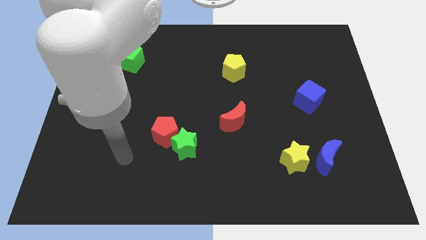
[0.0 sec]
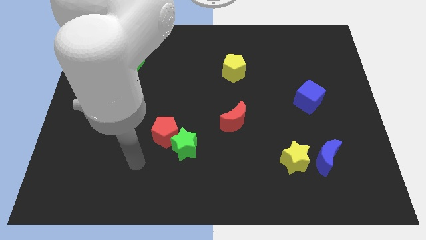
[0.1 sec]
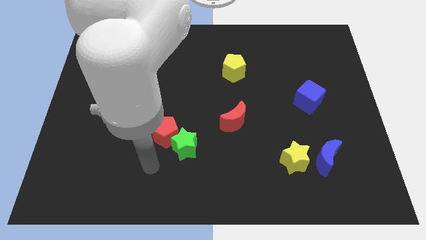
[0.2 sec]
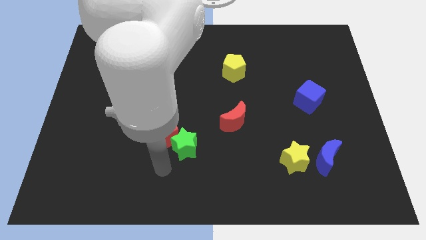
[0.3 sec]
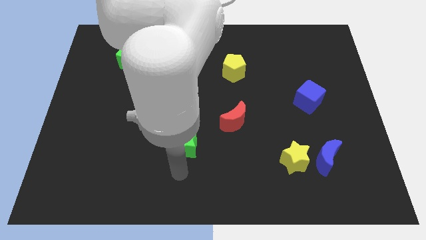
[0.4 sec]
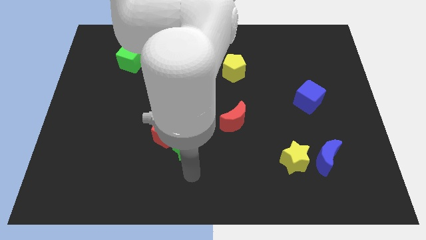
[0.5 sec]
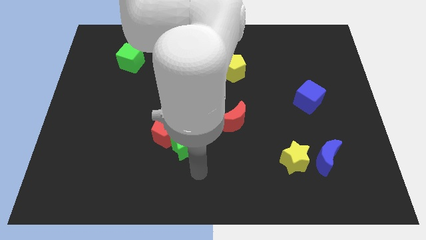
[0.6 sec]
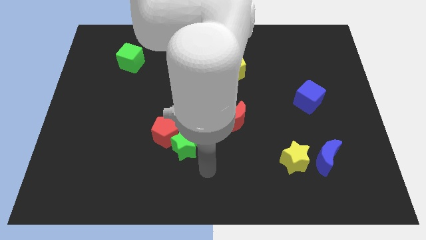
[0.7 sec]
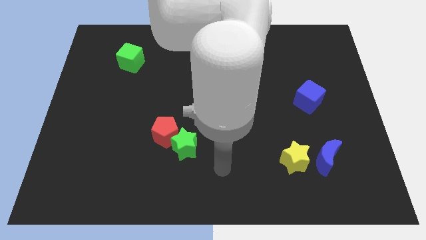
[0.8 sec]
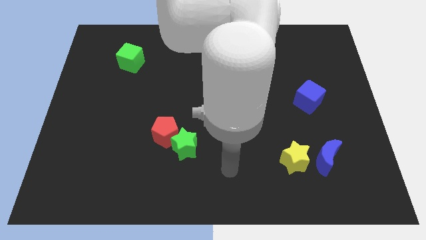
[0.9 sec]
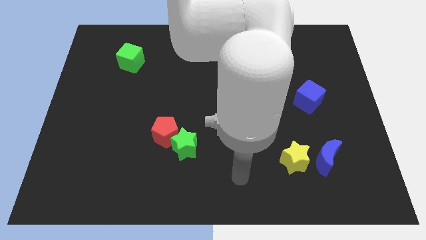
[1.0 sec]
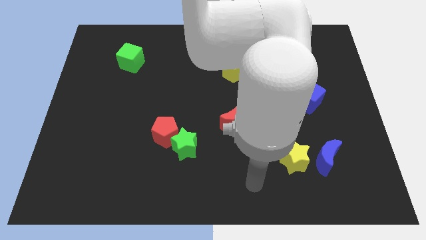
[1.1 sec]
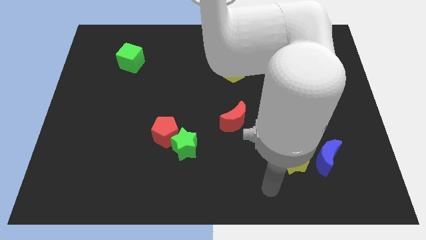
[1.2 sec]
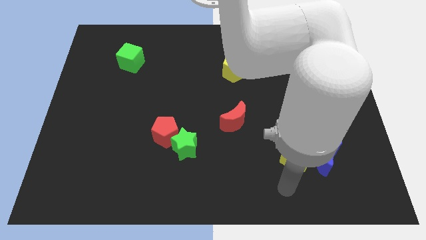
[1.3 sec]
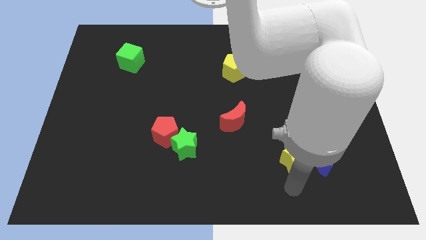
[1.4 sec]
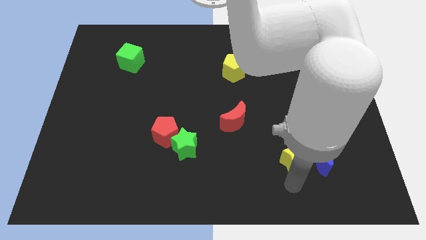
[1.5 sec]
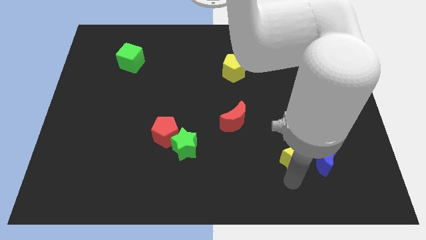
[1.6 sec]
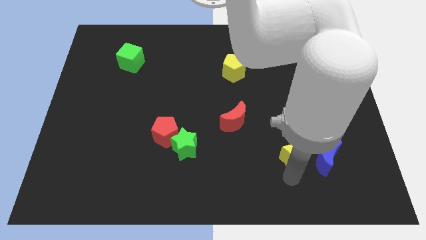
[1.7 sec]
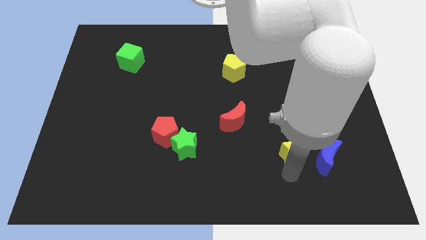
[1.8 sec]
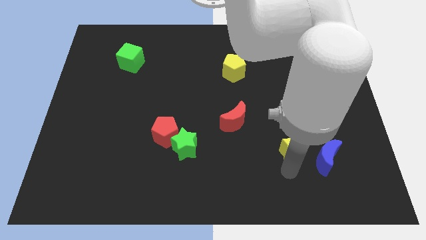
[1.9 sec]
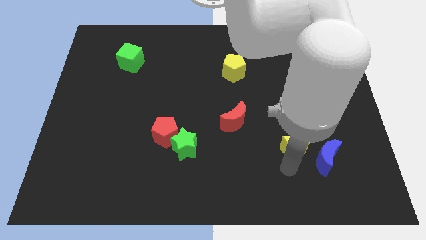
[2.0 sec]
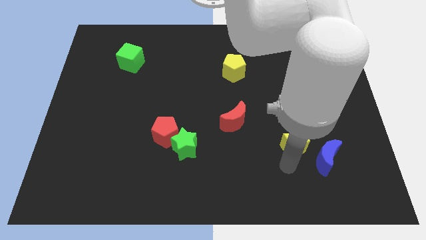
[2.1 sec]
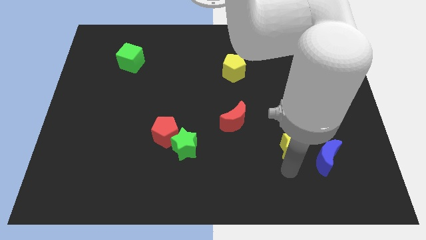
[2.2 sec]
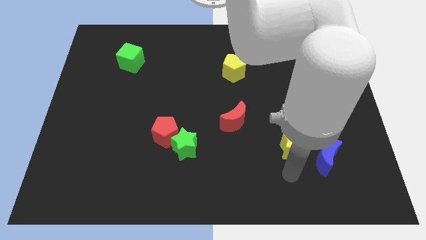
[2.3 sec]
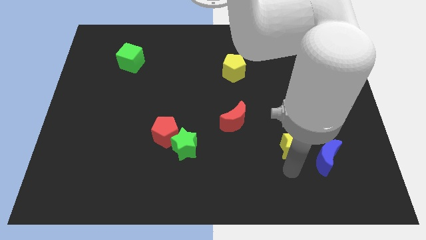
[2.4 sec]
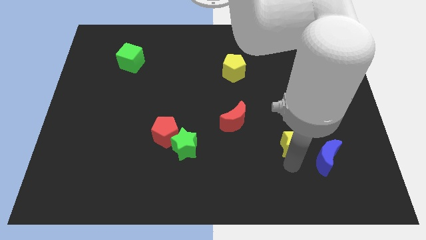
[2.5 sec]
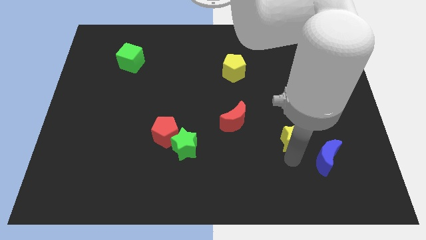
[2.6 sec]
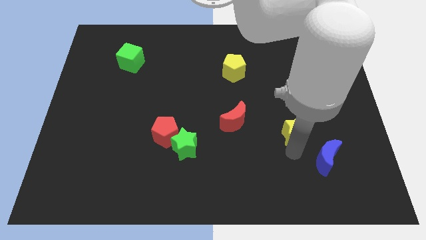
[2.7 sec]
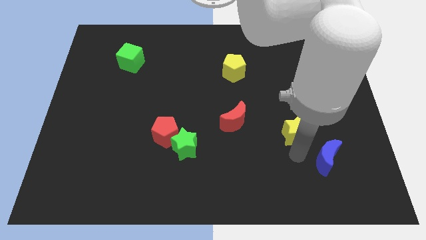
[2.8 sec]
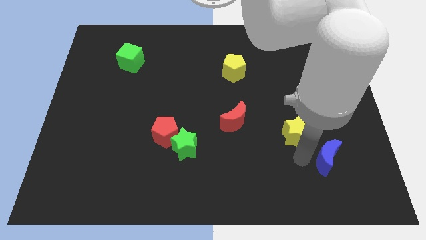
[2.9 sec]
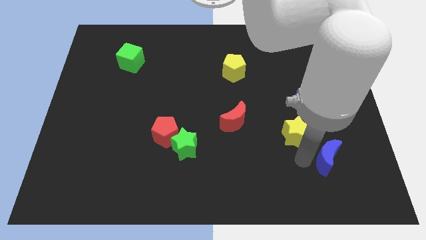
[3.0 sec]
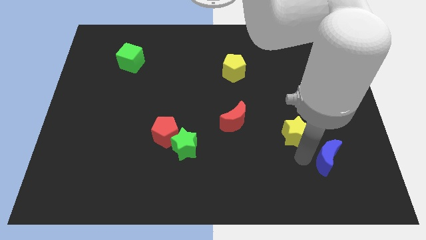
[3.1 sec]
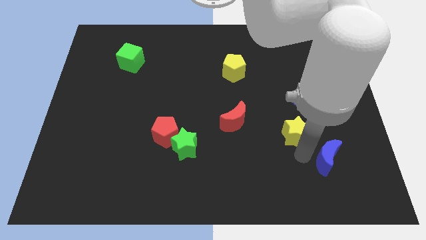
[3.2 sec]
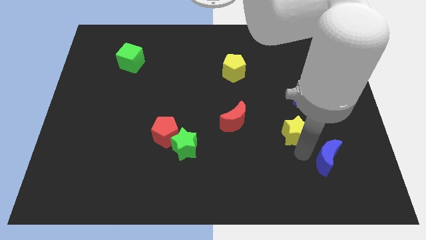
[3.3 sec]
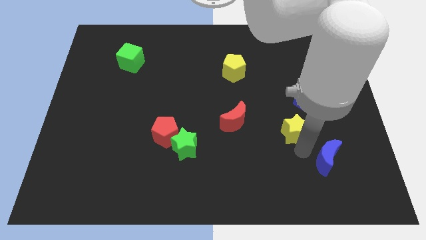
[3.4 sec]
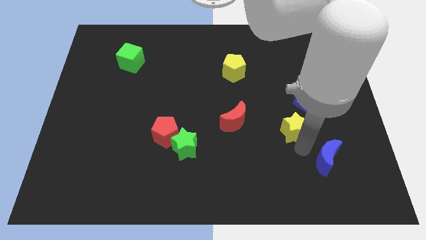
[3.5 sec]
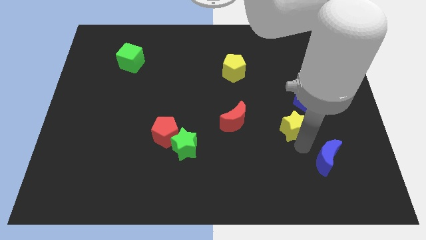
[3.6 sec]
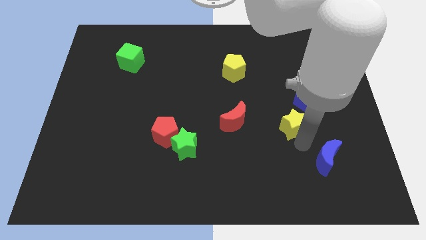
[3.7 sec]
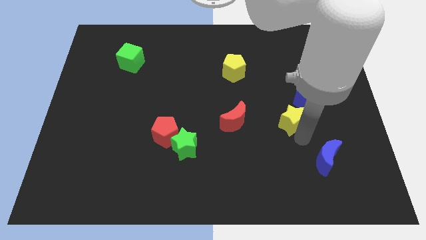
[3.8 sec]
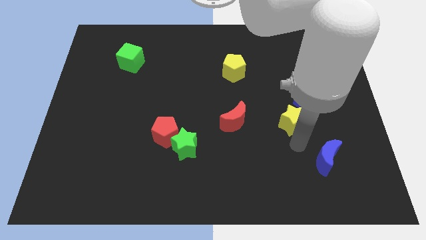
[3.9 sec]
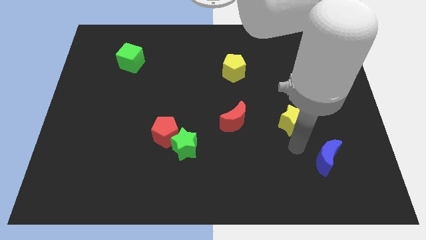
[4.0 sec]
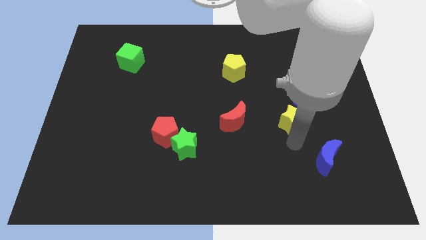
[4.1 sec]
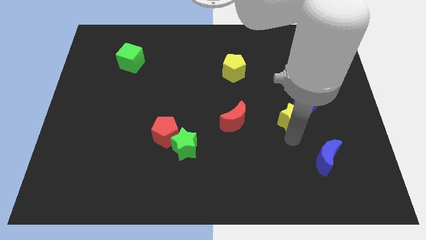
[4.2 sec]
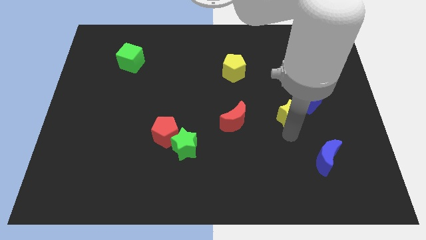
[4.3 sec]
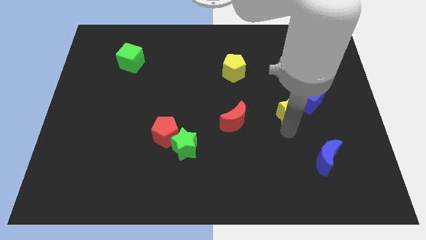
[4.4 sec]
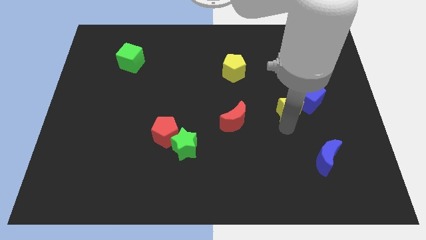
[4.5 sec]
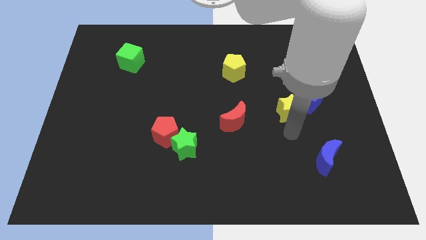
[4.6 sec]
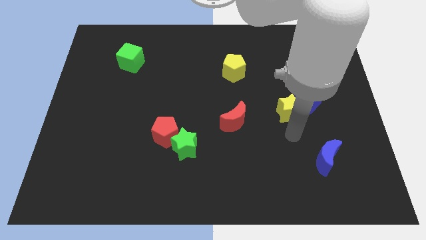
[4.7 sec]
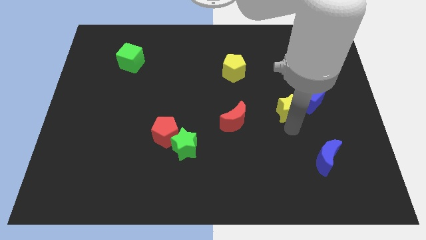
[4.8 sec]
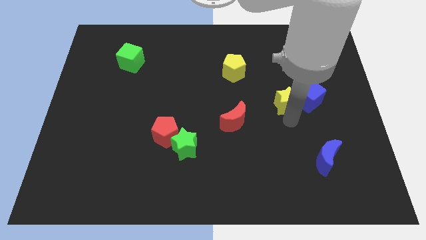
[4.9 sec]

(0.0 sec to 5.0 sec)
slide the yellow star to the top left side of the blue cube

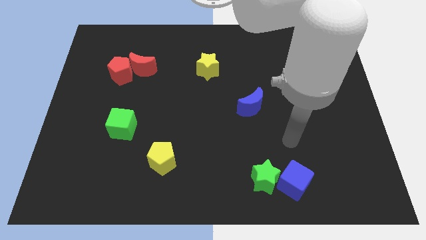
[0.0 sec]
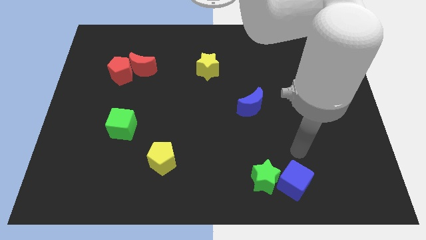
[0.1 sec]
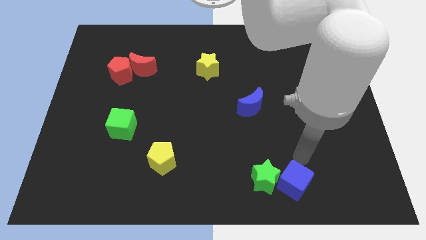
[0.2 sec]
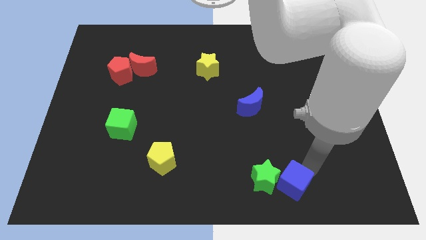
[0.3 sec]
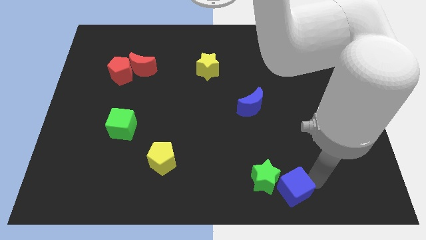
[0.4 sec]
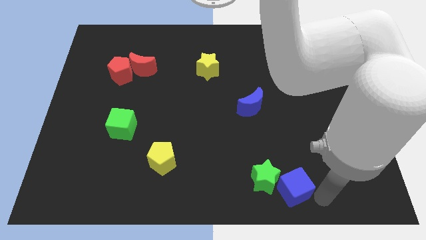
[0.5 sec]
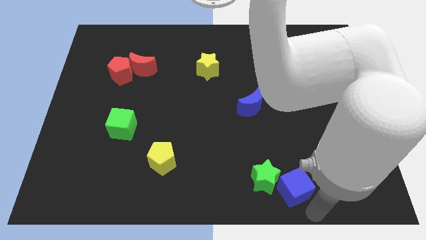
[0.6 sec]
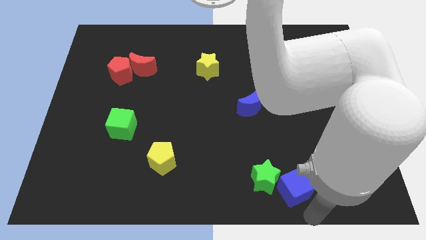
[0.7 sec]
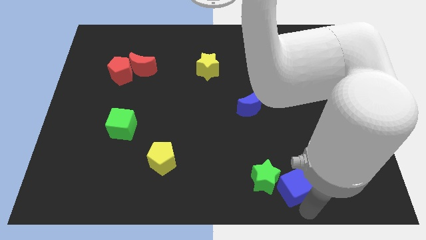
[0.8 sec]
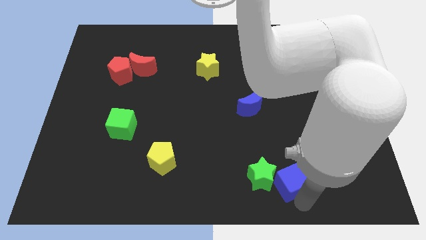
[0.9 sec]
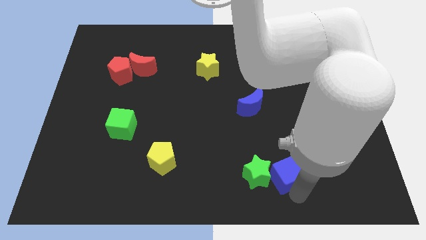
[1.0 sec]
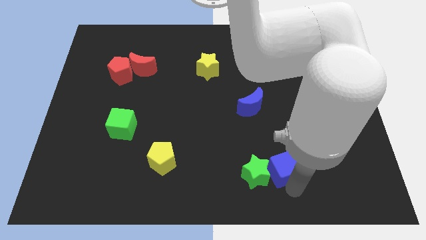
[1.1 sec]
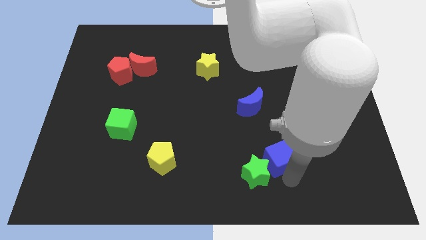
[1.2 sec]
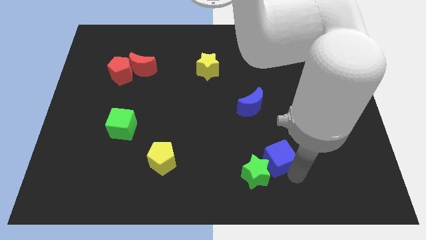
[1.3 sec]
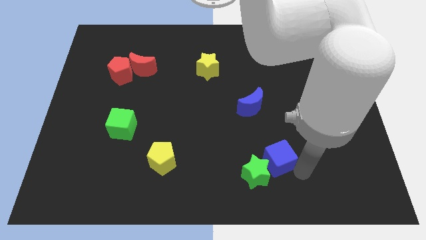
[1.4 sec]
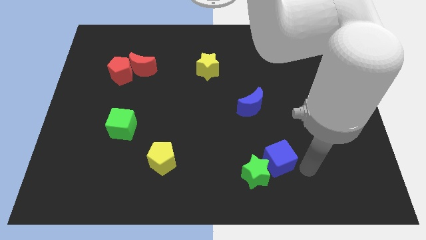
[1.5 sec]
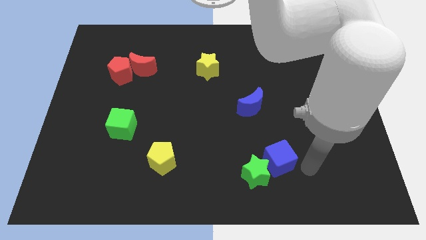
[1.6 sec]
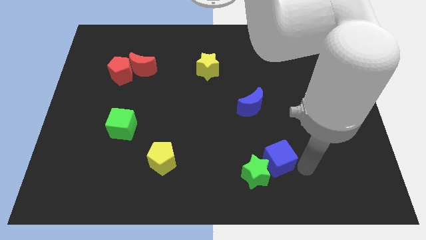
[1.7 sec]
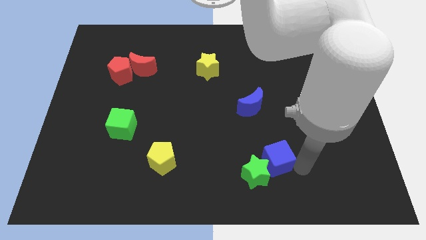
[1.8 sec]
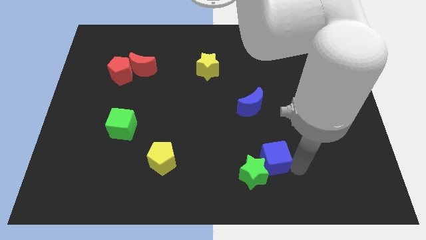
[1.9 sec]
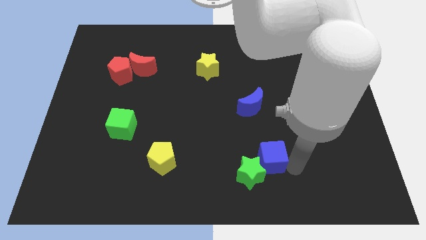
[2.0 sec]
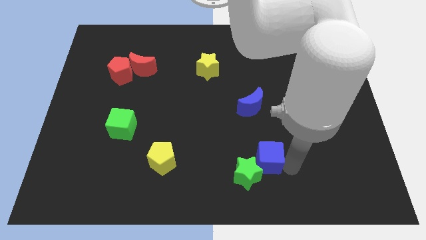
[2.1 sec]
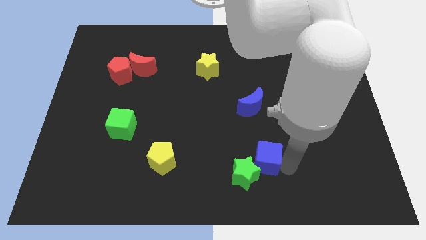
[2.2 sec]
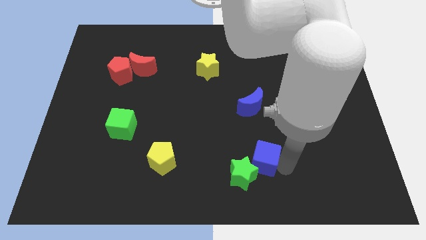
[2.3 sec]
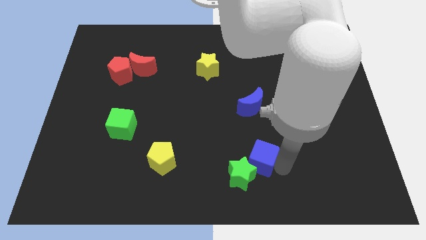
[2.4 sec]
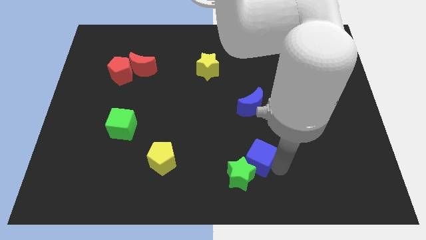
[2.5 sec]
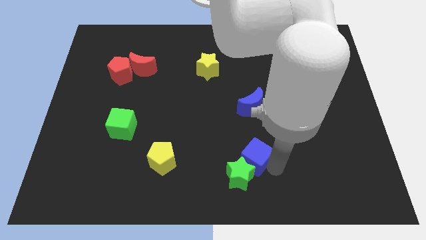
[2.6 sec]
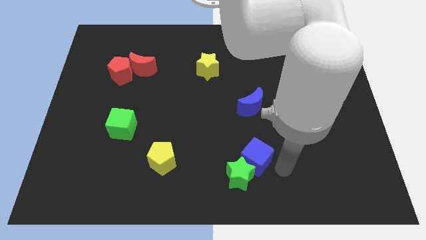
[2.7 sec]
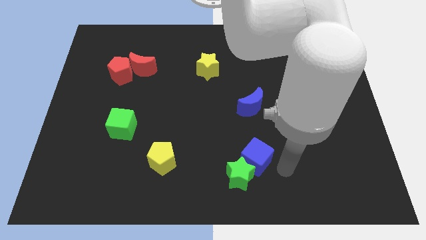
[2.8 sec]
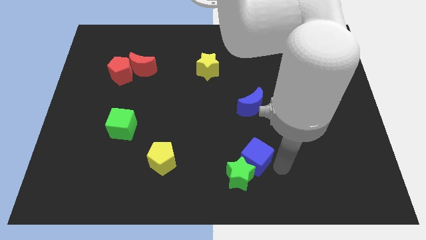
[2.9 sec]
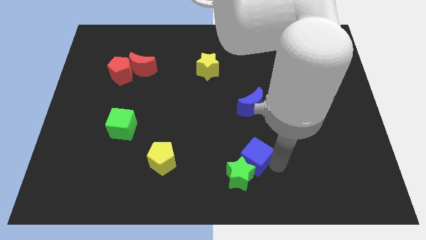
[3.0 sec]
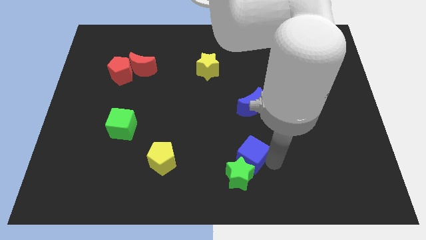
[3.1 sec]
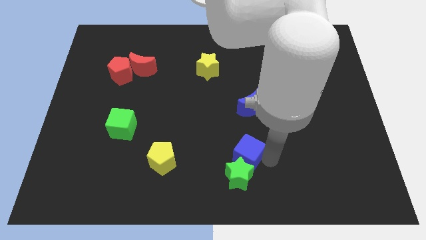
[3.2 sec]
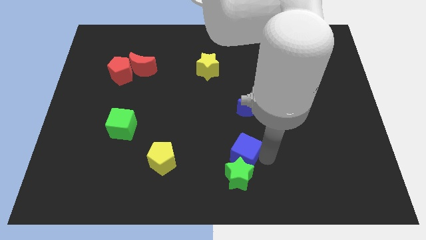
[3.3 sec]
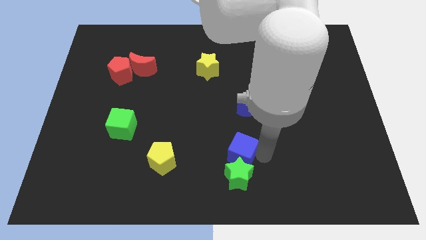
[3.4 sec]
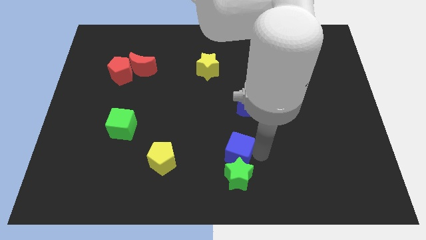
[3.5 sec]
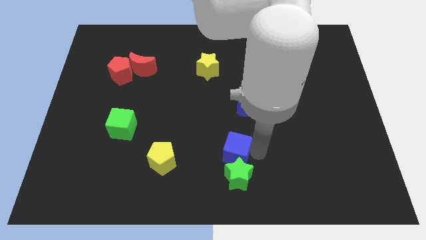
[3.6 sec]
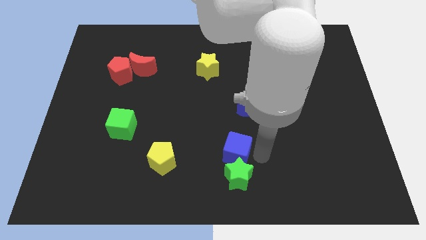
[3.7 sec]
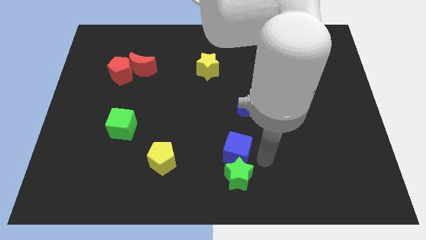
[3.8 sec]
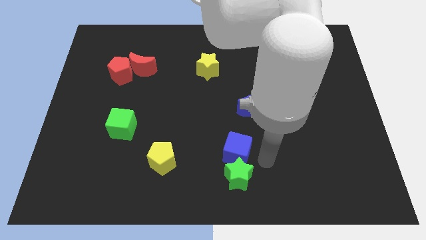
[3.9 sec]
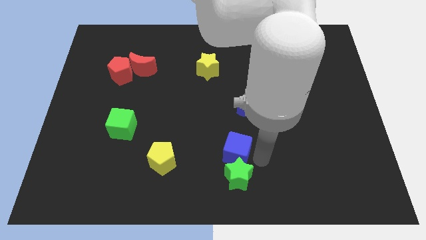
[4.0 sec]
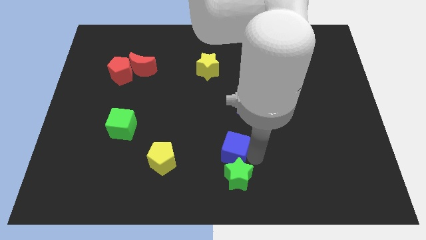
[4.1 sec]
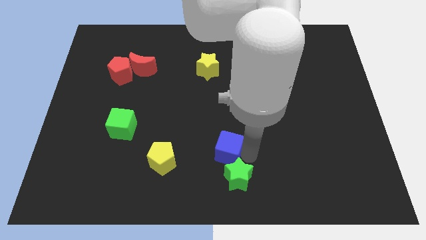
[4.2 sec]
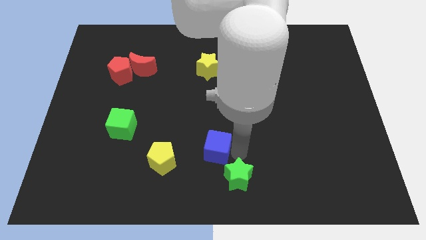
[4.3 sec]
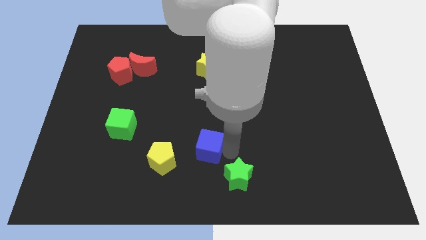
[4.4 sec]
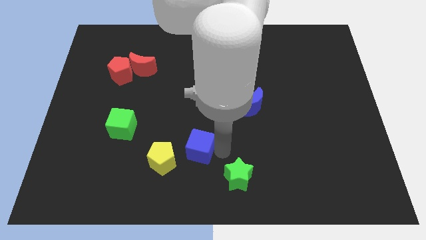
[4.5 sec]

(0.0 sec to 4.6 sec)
slide the blue cube diagonally up and to the right of the yellow pentagon
